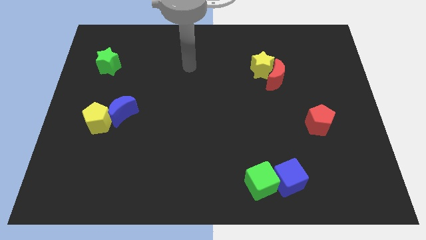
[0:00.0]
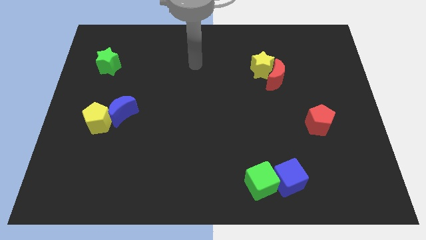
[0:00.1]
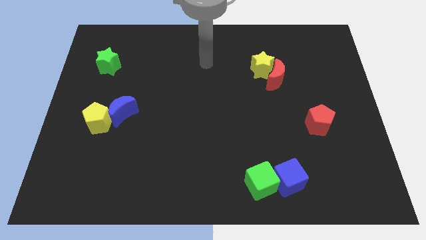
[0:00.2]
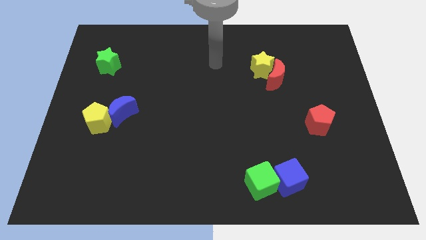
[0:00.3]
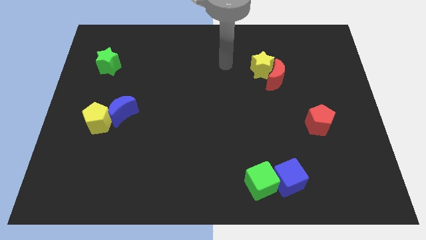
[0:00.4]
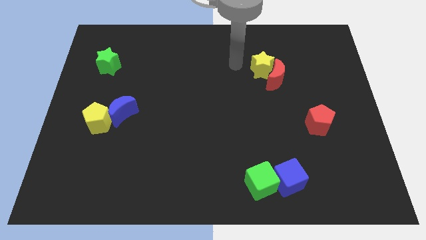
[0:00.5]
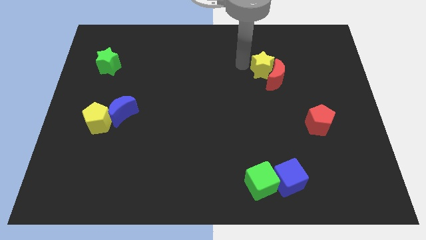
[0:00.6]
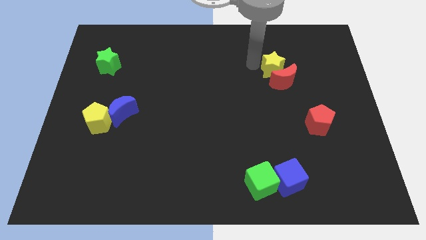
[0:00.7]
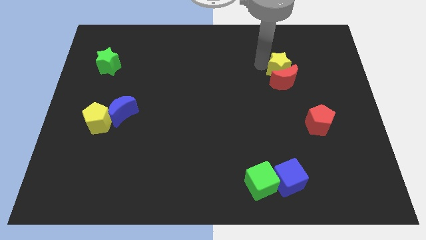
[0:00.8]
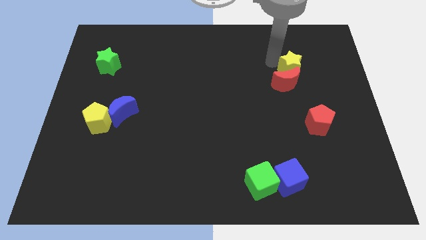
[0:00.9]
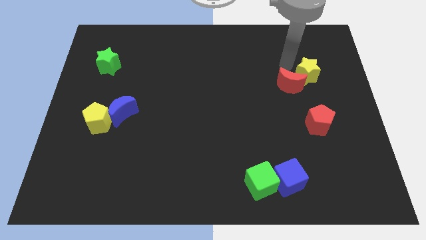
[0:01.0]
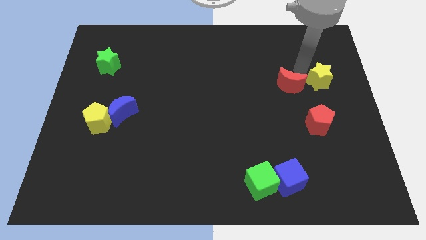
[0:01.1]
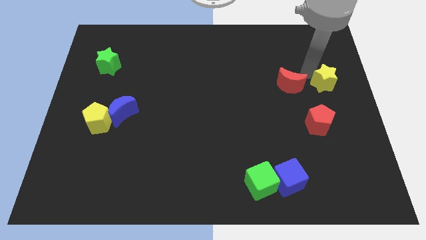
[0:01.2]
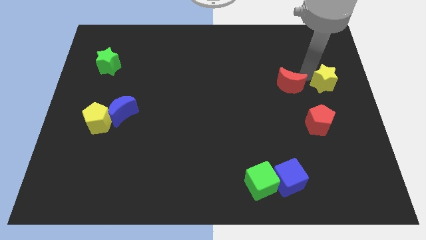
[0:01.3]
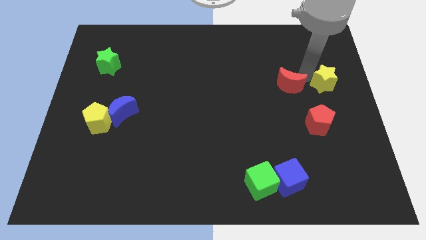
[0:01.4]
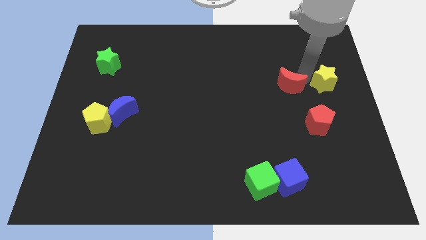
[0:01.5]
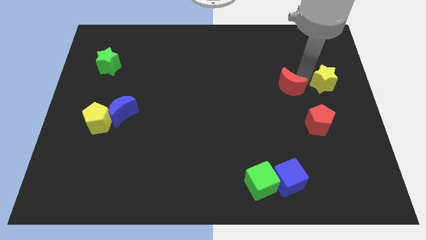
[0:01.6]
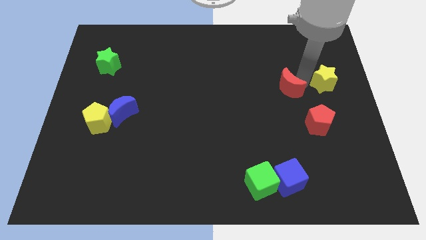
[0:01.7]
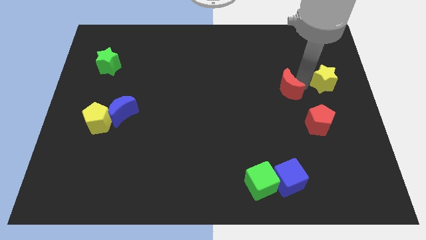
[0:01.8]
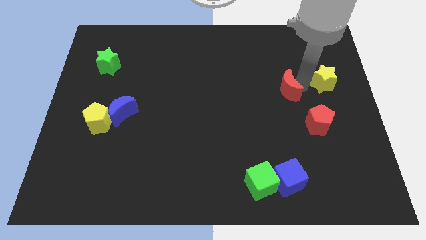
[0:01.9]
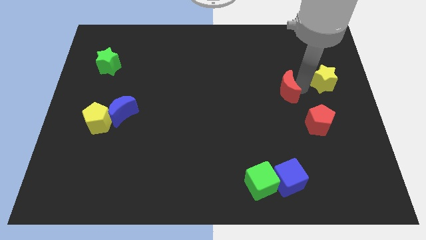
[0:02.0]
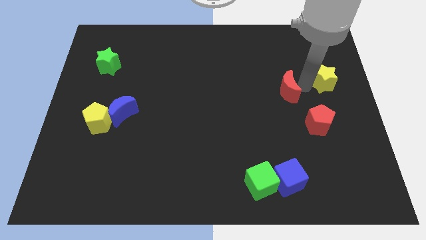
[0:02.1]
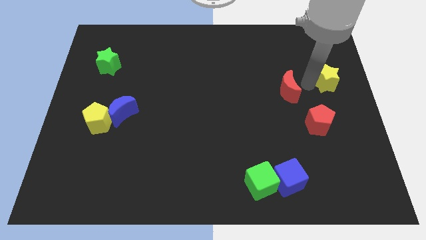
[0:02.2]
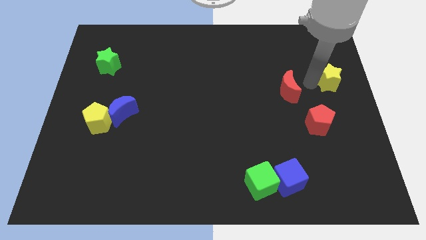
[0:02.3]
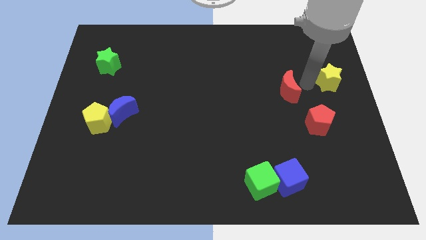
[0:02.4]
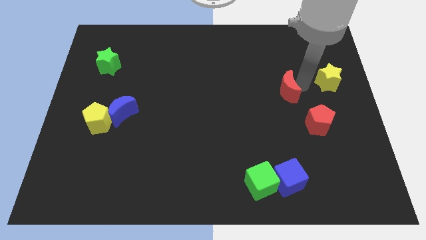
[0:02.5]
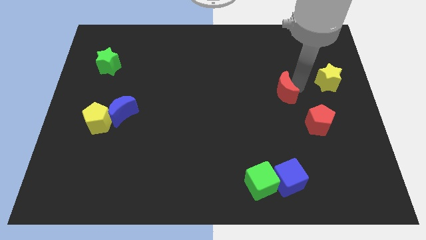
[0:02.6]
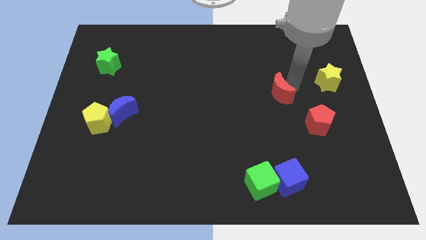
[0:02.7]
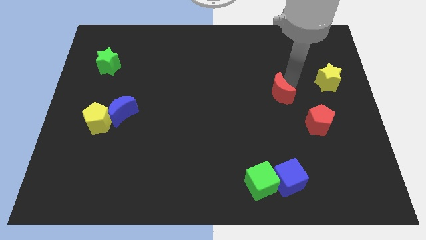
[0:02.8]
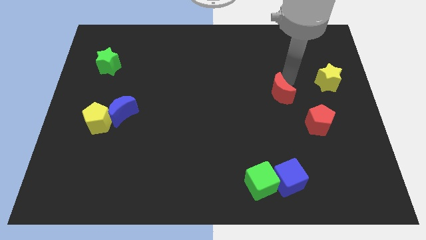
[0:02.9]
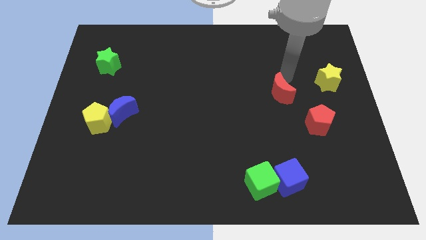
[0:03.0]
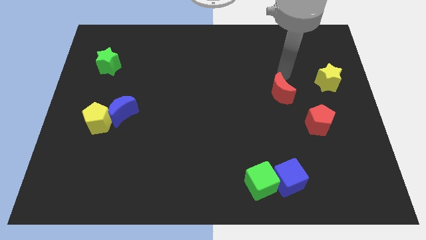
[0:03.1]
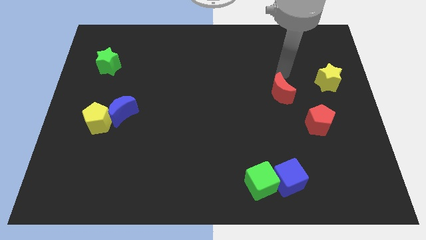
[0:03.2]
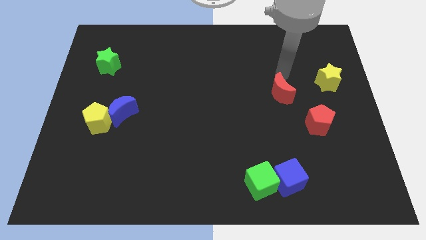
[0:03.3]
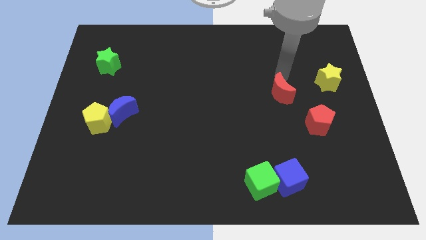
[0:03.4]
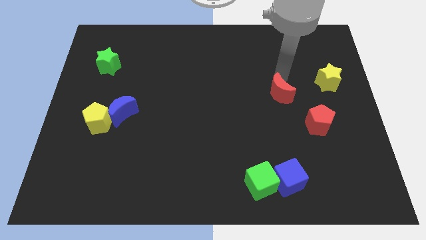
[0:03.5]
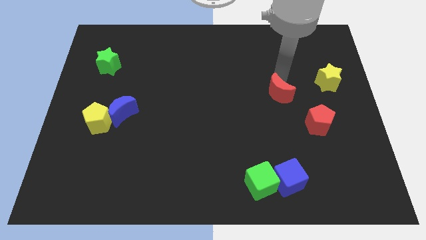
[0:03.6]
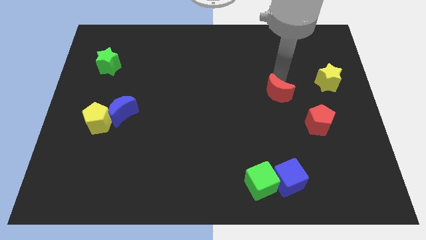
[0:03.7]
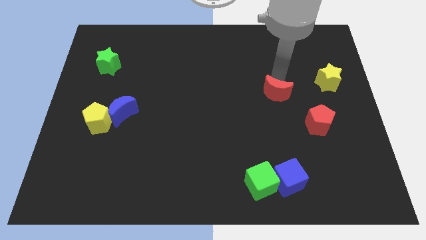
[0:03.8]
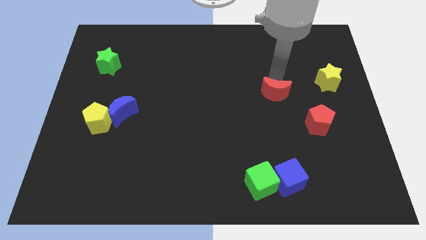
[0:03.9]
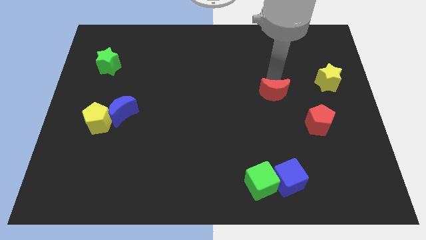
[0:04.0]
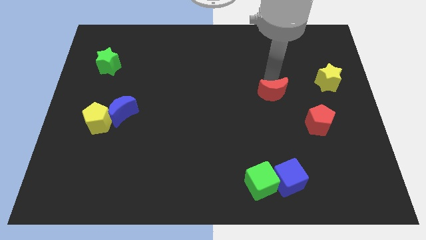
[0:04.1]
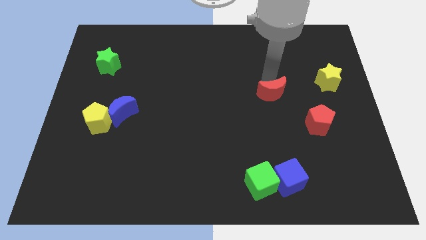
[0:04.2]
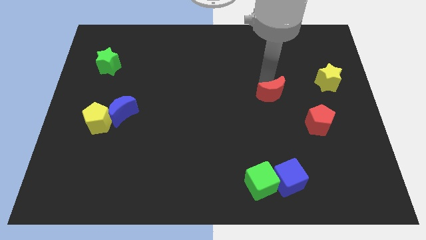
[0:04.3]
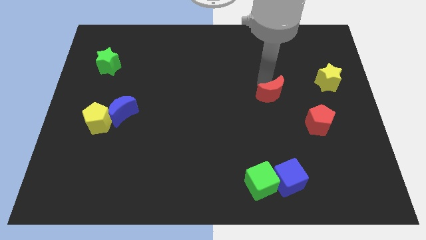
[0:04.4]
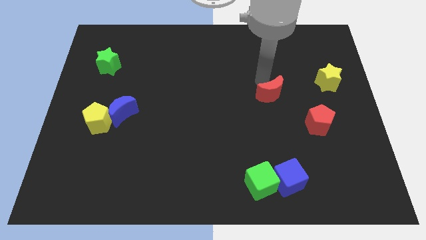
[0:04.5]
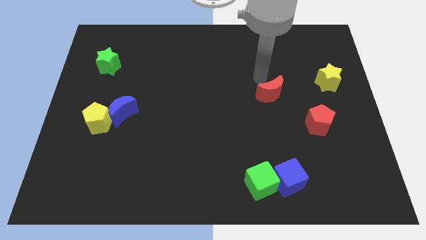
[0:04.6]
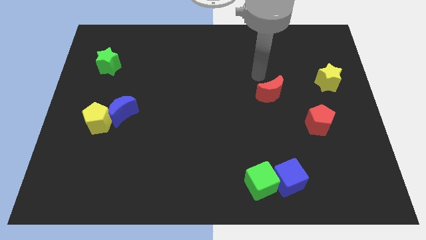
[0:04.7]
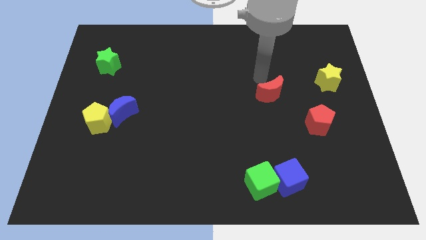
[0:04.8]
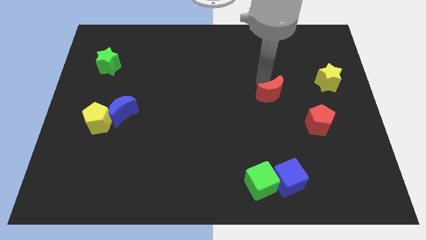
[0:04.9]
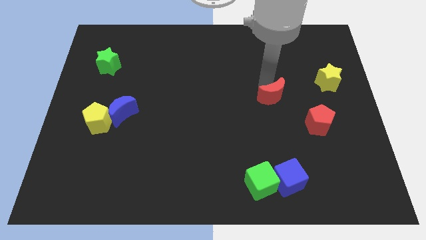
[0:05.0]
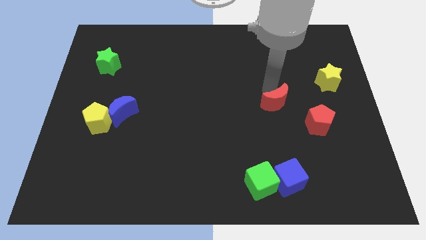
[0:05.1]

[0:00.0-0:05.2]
slightly slide the red moon down

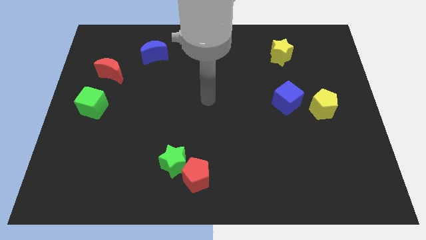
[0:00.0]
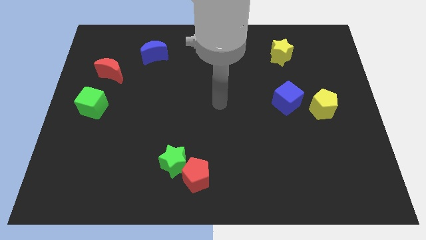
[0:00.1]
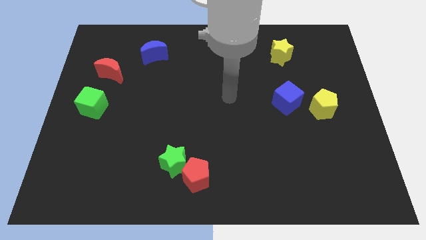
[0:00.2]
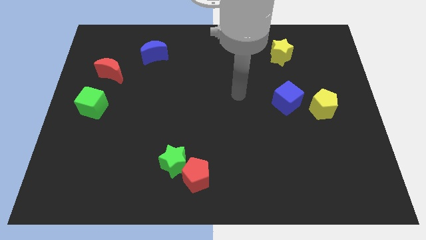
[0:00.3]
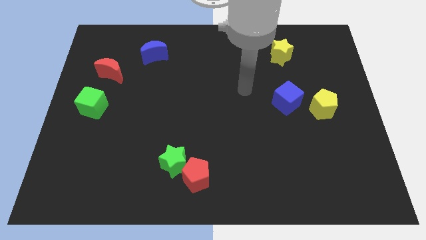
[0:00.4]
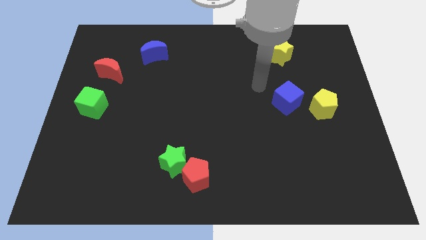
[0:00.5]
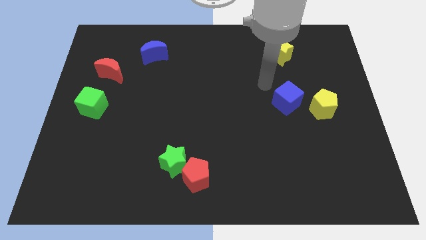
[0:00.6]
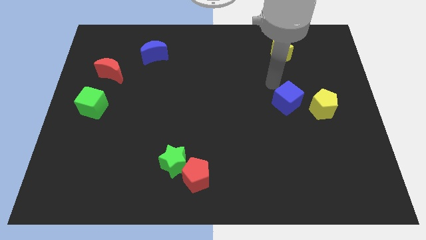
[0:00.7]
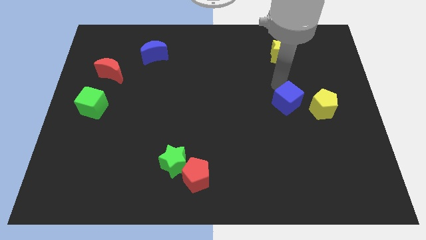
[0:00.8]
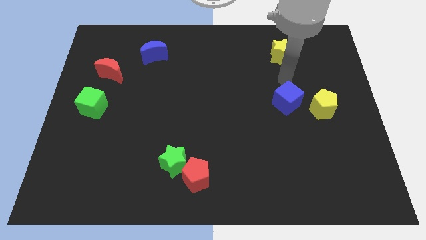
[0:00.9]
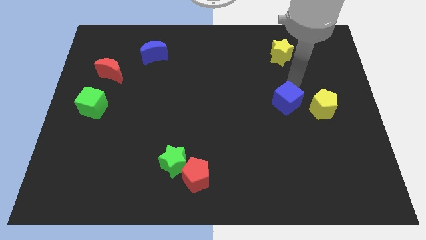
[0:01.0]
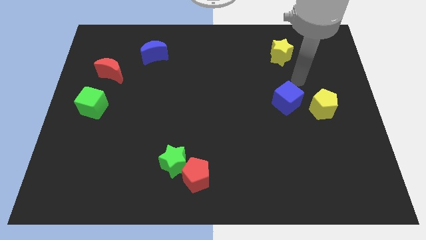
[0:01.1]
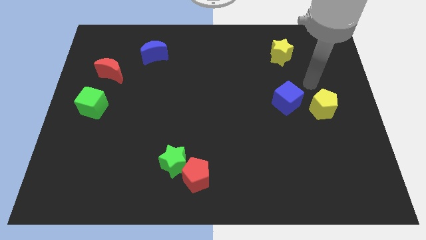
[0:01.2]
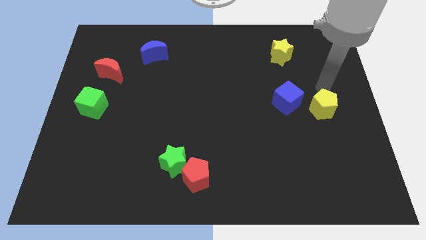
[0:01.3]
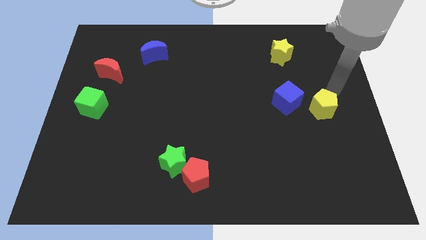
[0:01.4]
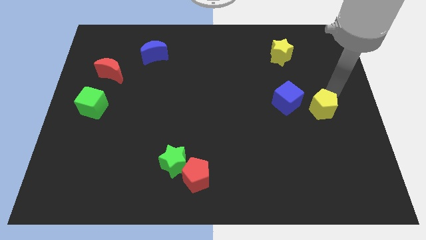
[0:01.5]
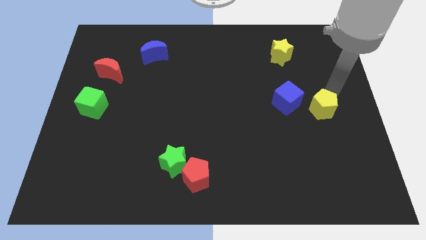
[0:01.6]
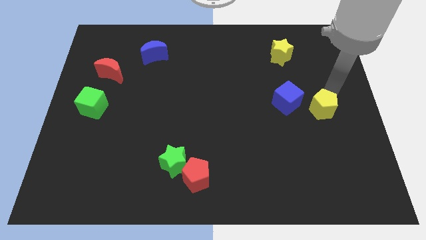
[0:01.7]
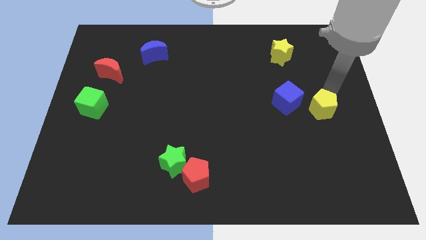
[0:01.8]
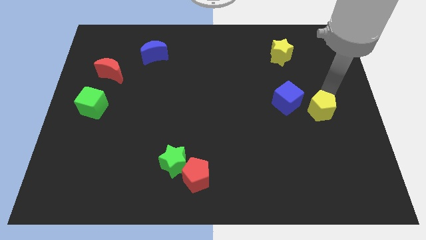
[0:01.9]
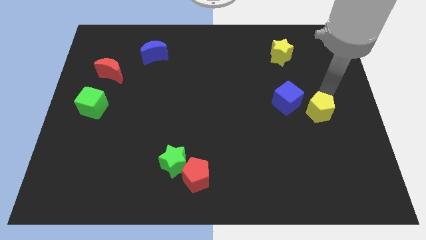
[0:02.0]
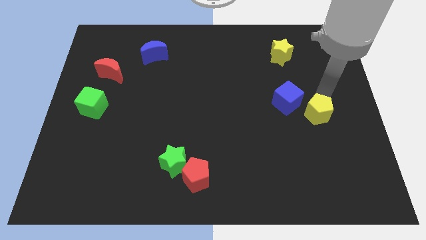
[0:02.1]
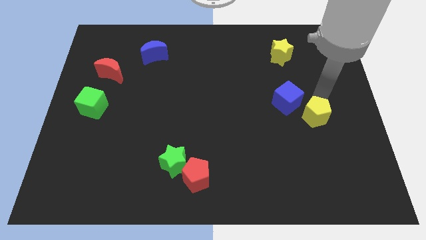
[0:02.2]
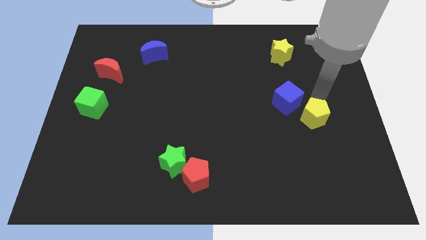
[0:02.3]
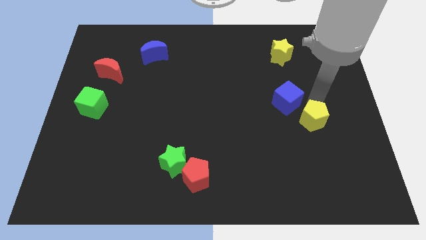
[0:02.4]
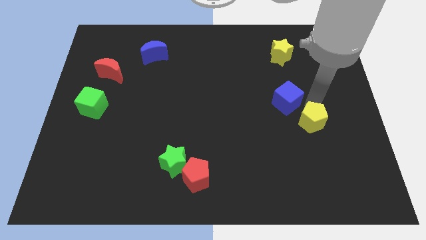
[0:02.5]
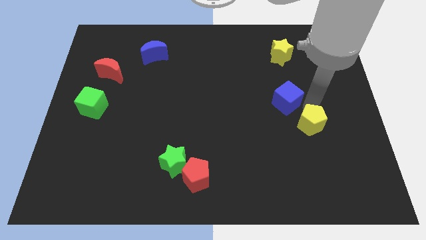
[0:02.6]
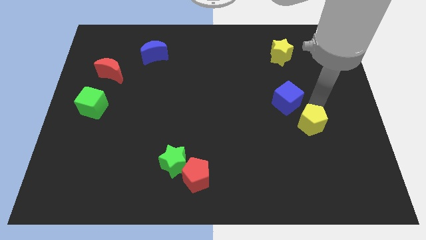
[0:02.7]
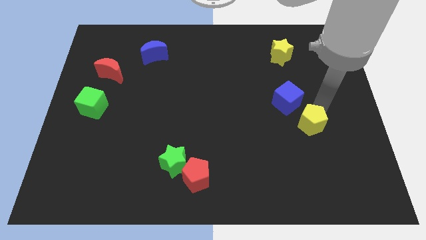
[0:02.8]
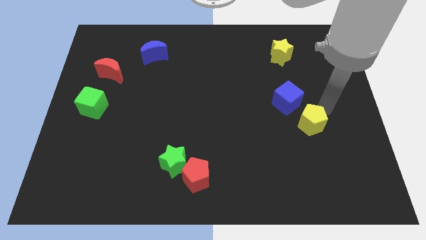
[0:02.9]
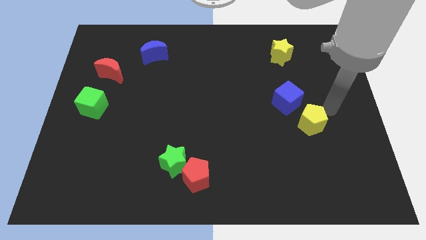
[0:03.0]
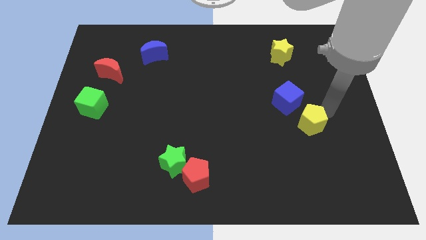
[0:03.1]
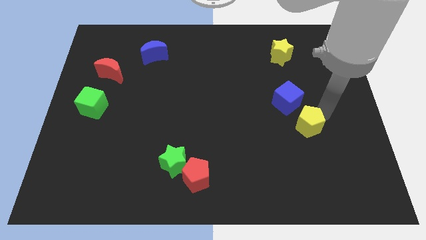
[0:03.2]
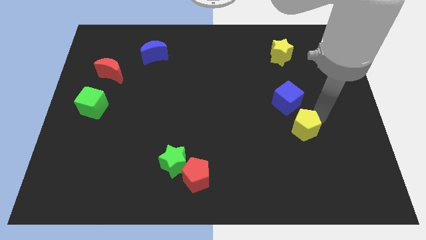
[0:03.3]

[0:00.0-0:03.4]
move the yellow pentagon slightly downwards and then to the left
